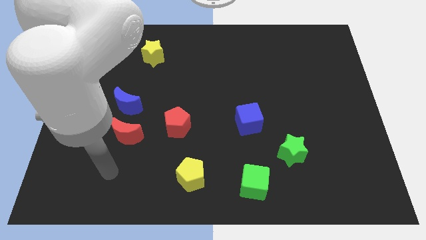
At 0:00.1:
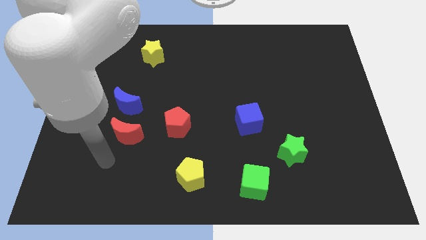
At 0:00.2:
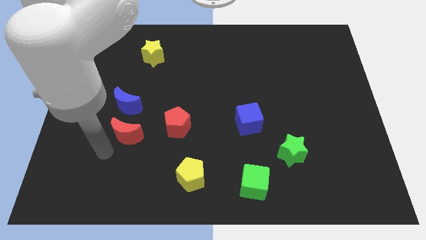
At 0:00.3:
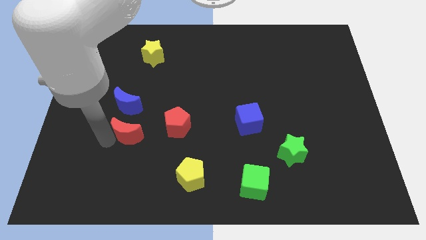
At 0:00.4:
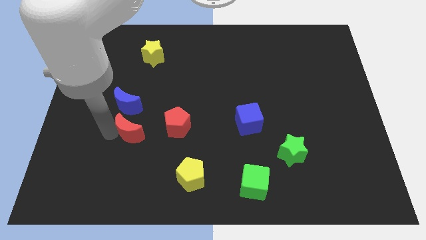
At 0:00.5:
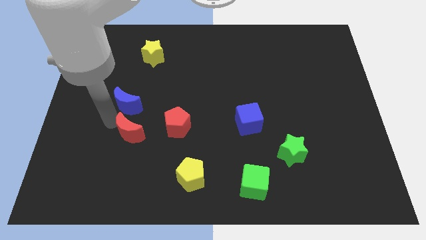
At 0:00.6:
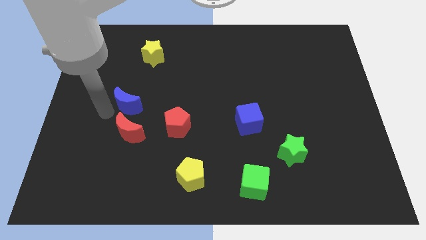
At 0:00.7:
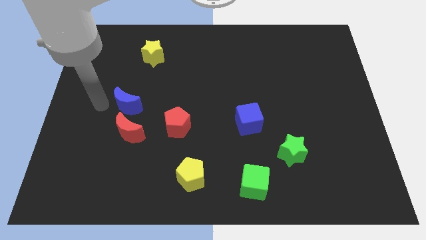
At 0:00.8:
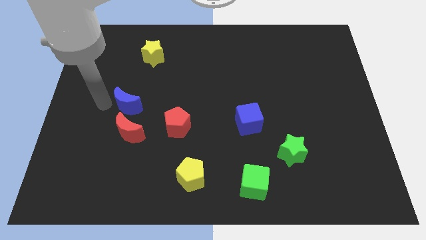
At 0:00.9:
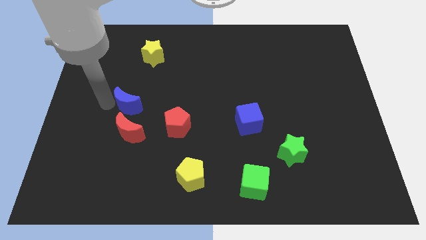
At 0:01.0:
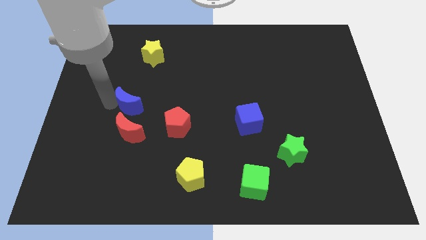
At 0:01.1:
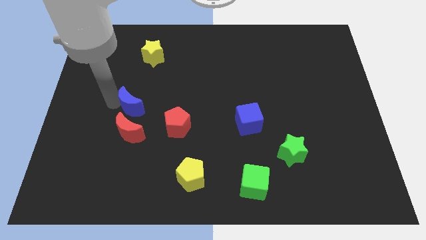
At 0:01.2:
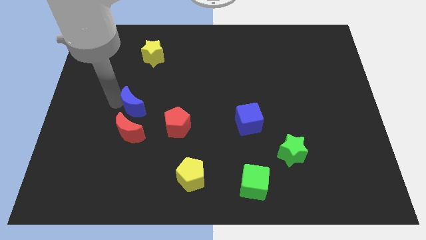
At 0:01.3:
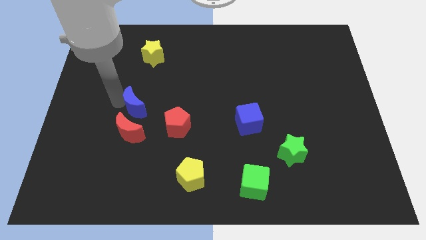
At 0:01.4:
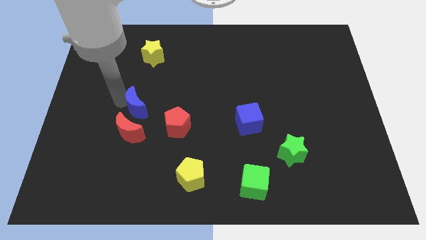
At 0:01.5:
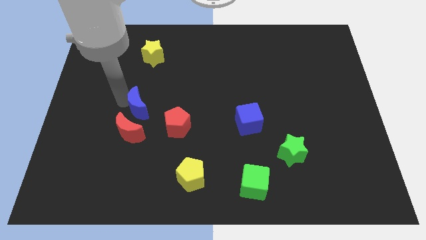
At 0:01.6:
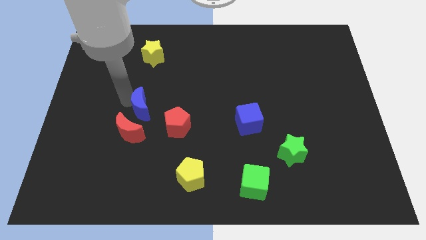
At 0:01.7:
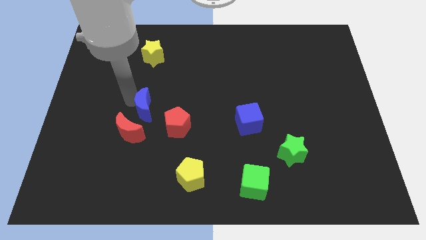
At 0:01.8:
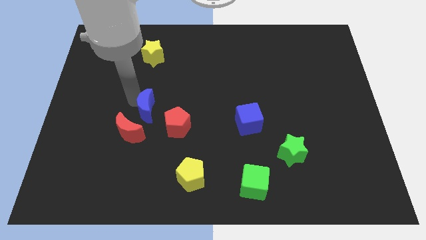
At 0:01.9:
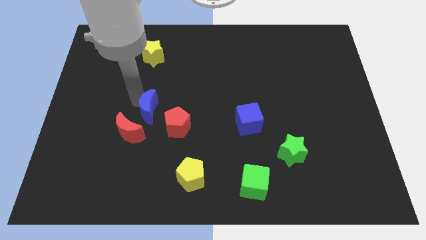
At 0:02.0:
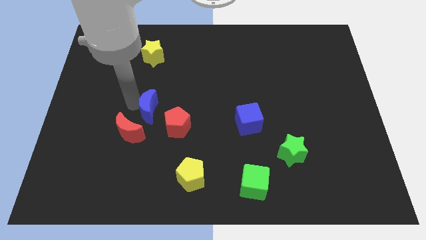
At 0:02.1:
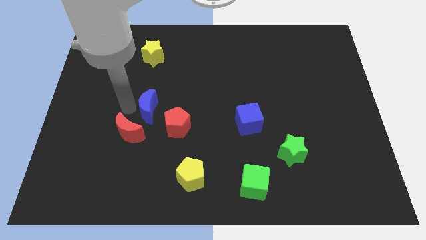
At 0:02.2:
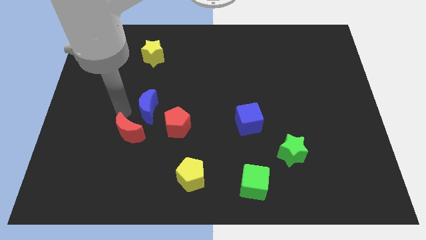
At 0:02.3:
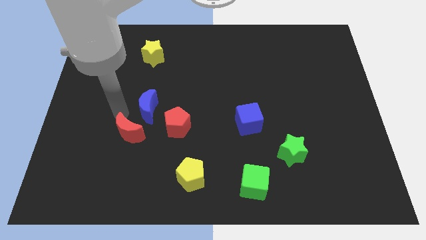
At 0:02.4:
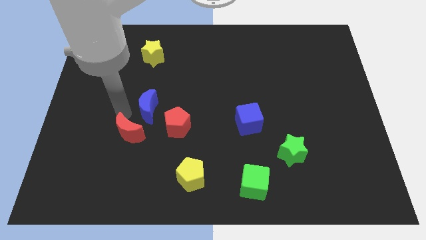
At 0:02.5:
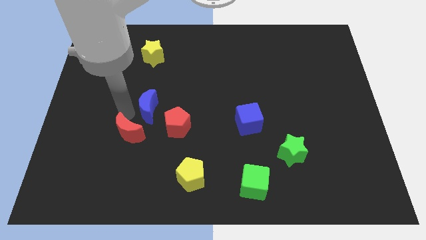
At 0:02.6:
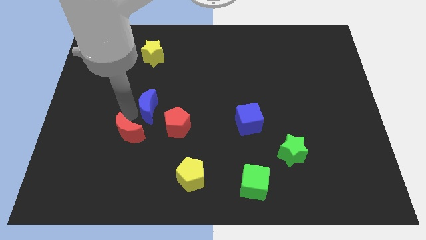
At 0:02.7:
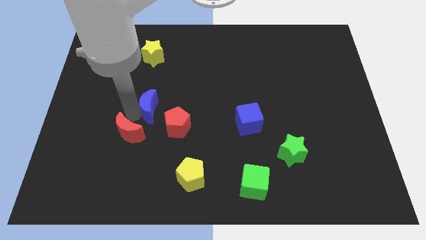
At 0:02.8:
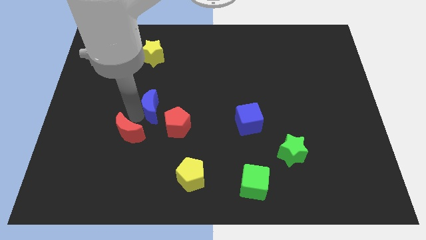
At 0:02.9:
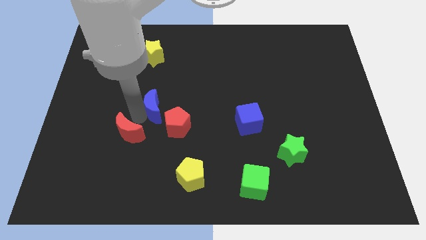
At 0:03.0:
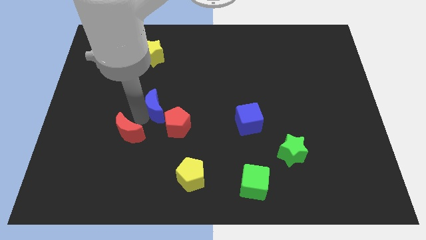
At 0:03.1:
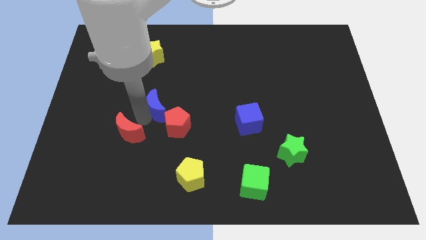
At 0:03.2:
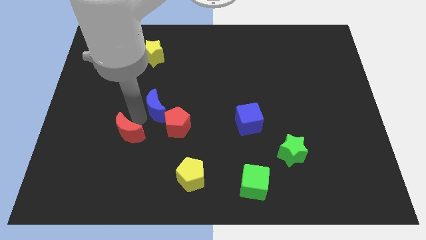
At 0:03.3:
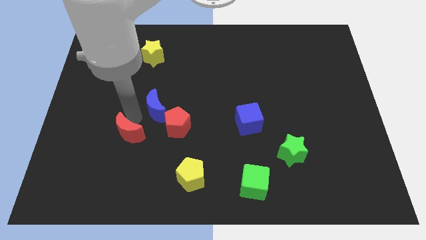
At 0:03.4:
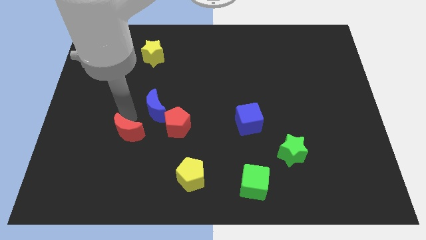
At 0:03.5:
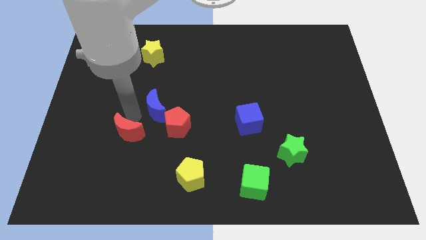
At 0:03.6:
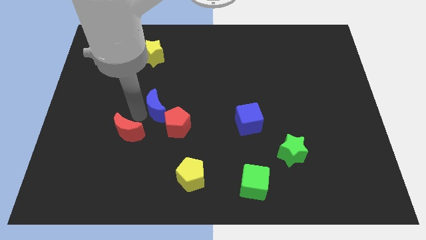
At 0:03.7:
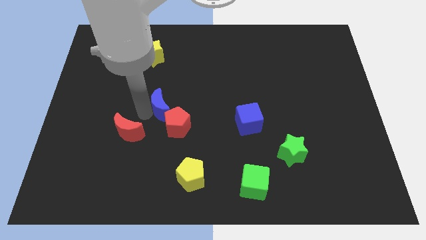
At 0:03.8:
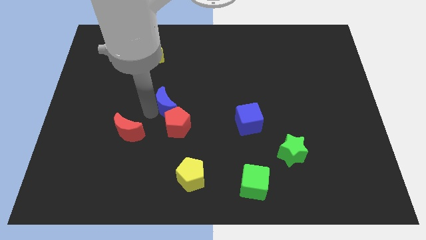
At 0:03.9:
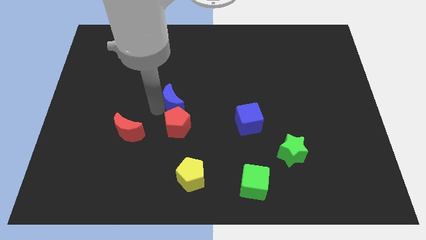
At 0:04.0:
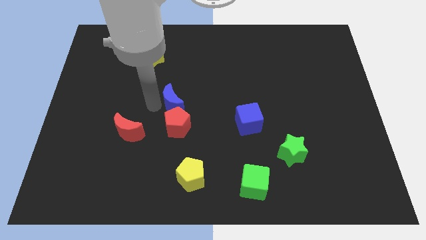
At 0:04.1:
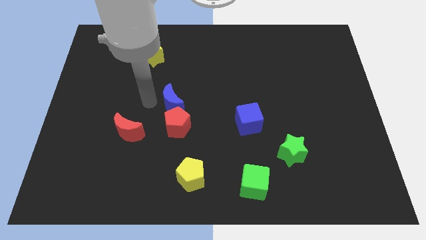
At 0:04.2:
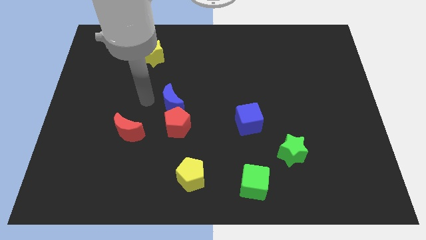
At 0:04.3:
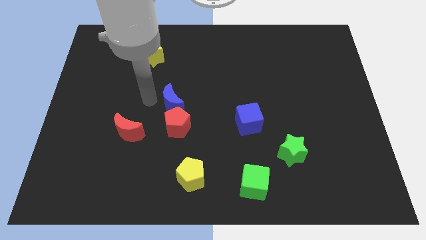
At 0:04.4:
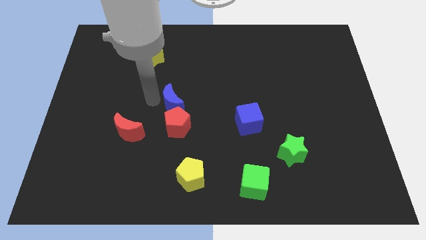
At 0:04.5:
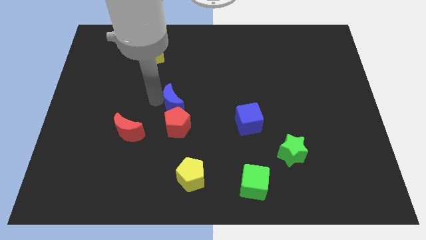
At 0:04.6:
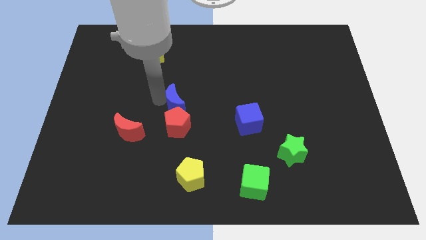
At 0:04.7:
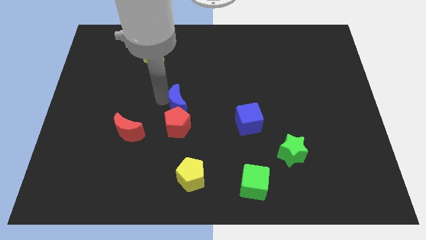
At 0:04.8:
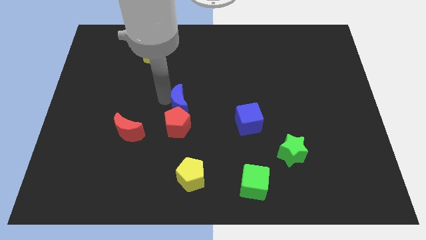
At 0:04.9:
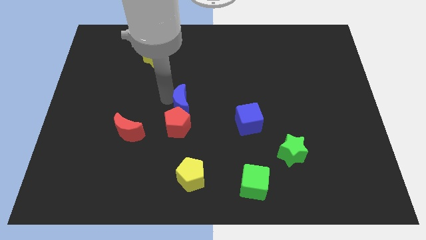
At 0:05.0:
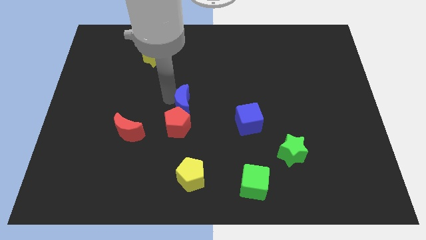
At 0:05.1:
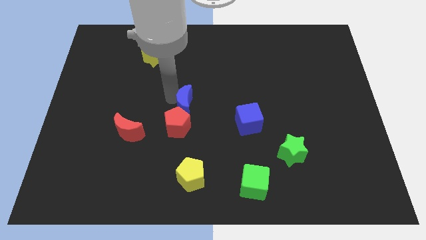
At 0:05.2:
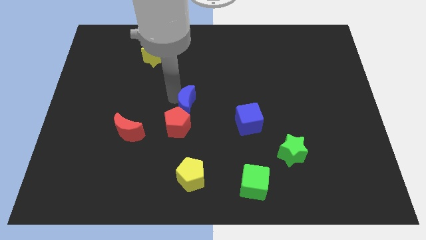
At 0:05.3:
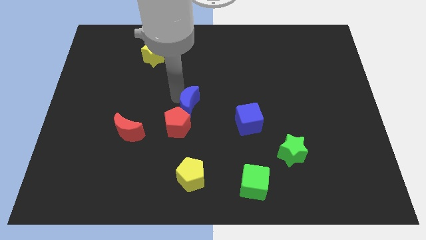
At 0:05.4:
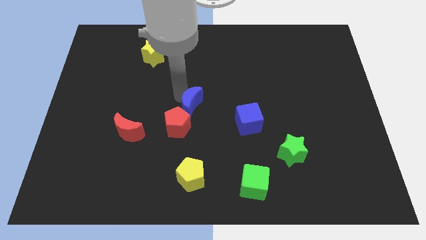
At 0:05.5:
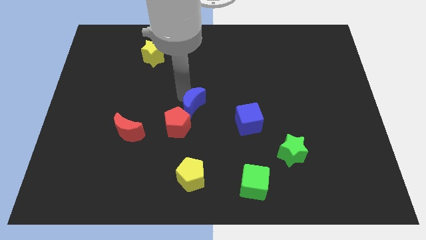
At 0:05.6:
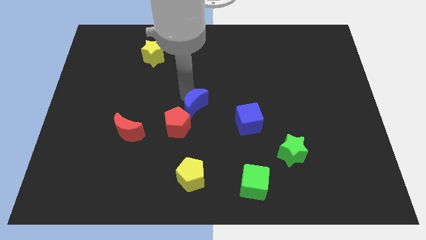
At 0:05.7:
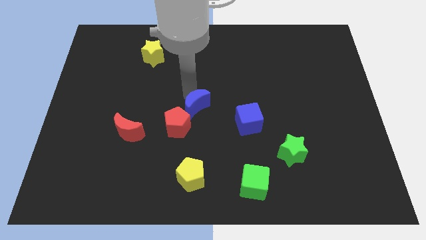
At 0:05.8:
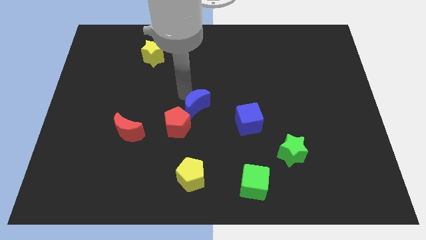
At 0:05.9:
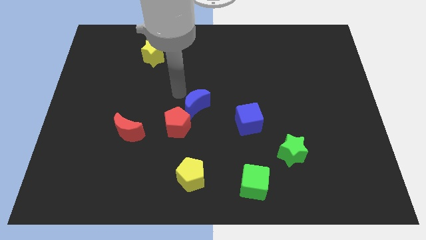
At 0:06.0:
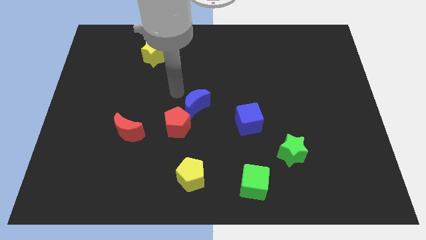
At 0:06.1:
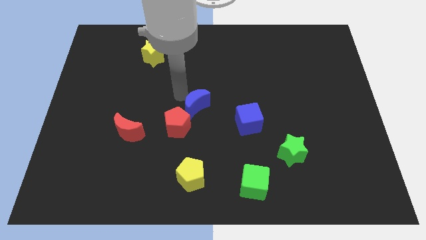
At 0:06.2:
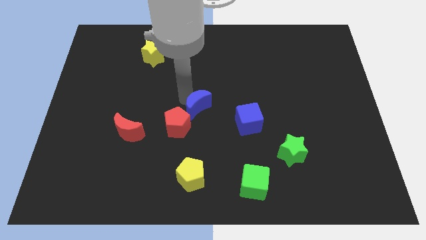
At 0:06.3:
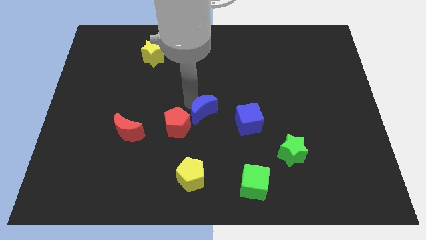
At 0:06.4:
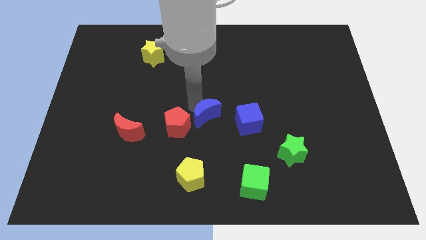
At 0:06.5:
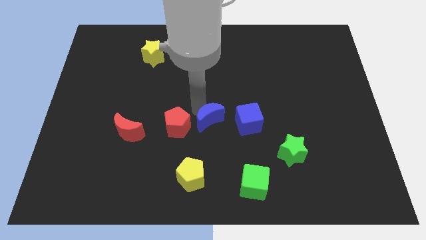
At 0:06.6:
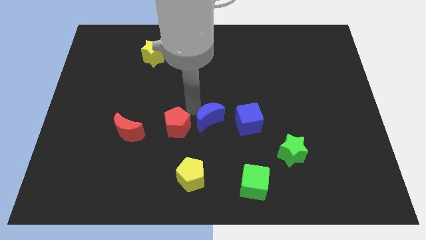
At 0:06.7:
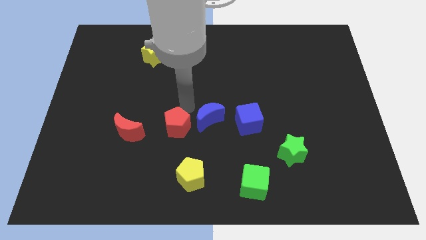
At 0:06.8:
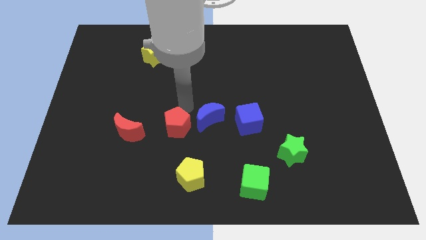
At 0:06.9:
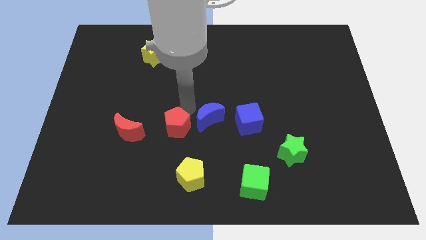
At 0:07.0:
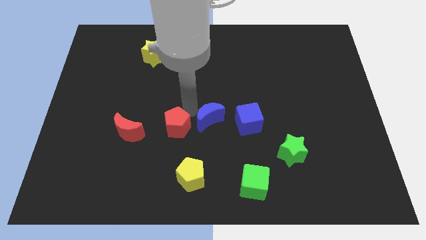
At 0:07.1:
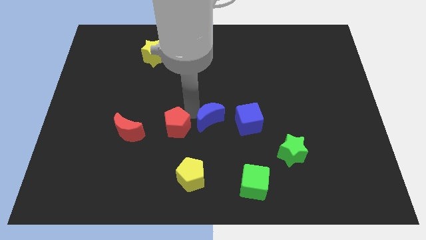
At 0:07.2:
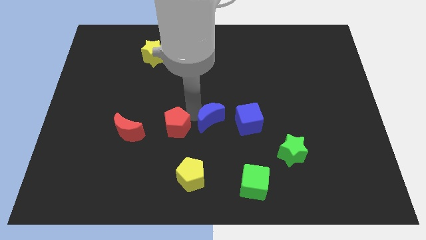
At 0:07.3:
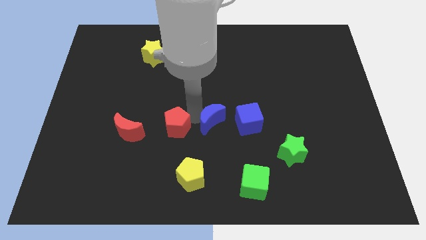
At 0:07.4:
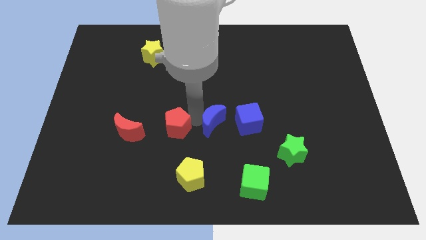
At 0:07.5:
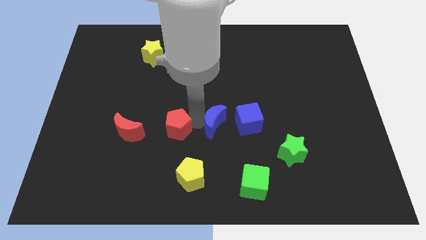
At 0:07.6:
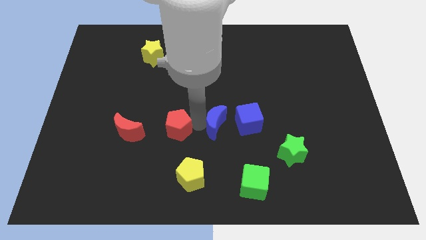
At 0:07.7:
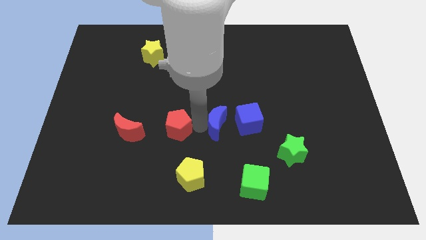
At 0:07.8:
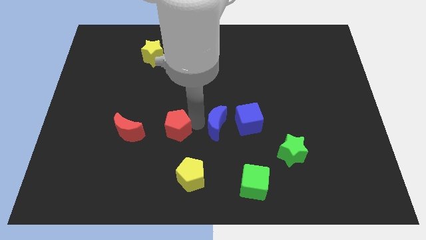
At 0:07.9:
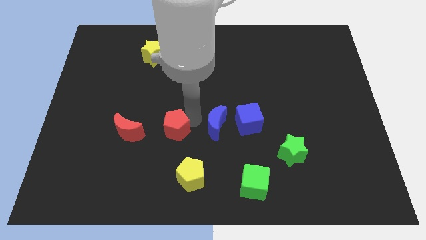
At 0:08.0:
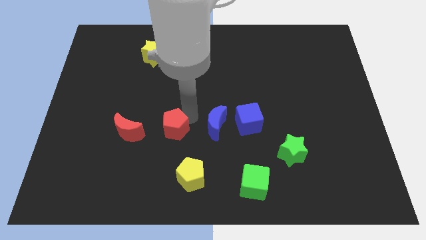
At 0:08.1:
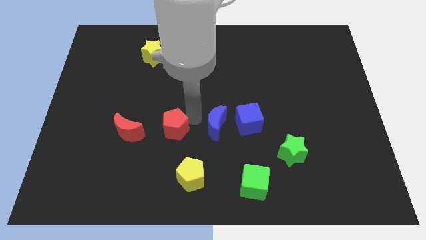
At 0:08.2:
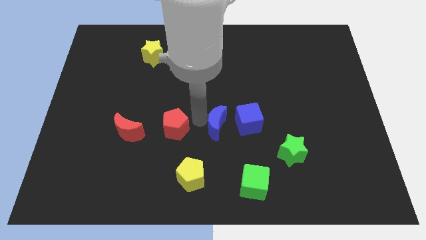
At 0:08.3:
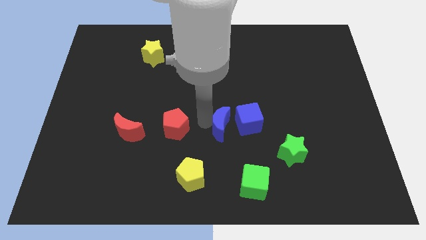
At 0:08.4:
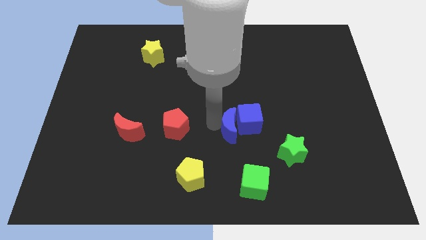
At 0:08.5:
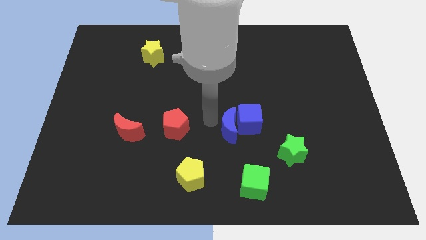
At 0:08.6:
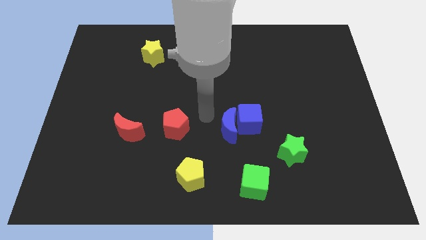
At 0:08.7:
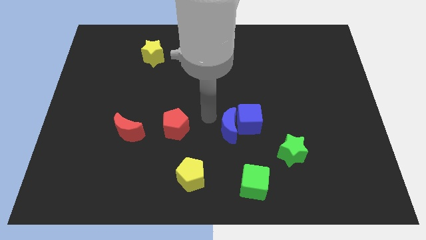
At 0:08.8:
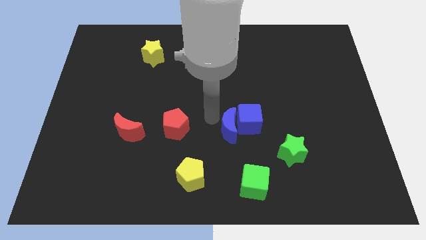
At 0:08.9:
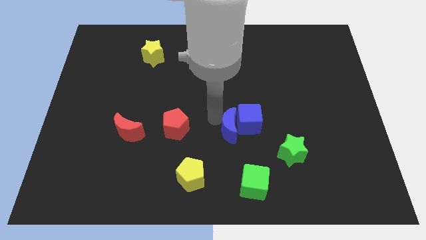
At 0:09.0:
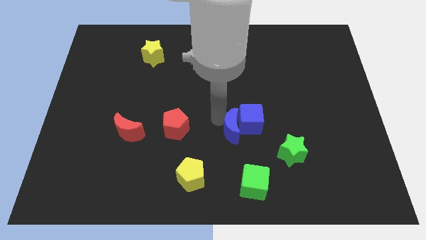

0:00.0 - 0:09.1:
put the blue moon to the top of the green cube
